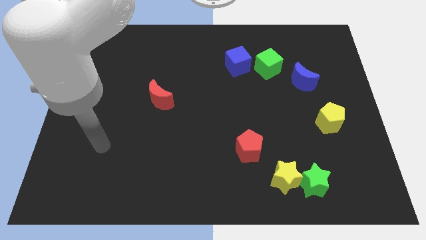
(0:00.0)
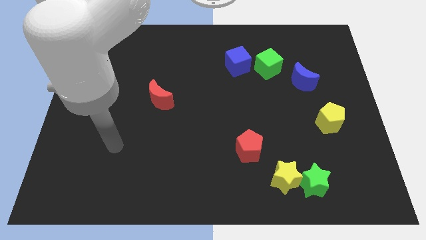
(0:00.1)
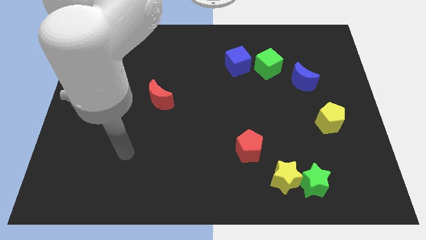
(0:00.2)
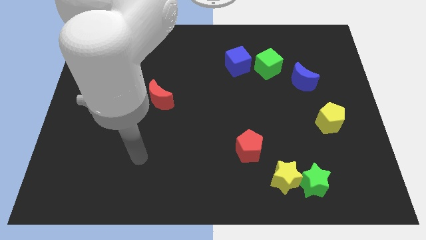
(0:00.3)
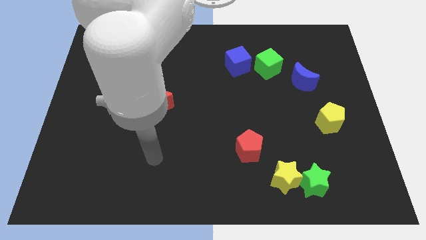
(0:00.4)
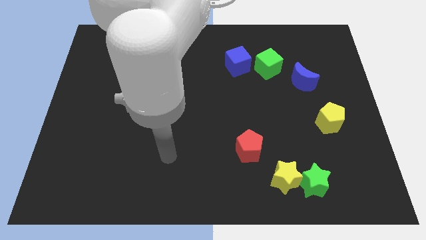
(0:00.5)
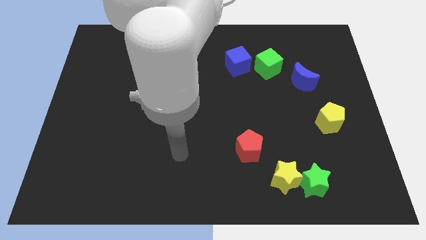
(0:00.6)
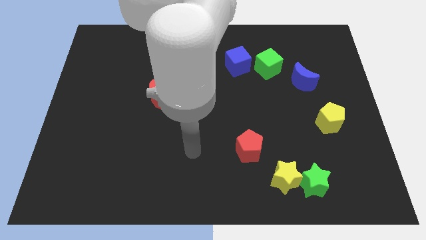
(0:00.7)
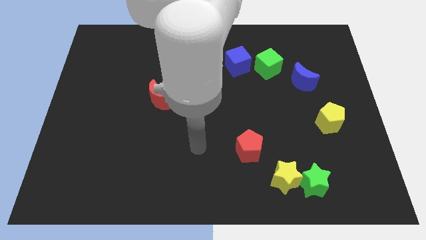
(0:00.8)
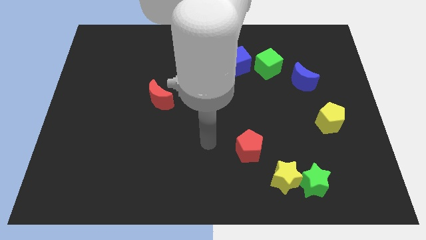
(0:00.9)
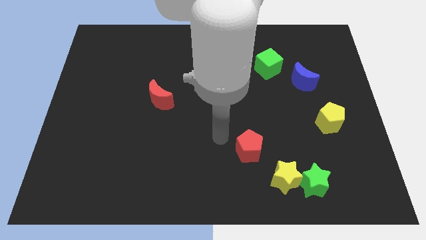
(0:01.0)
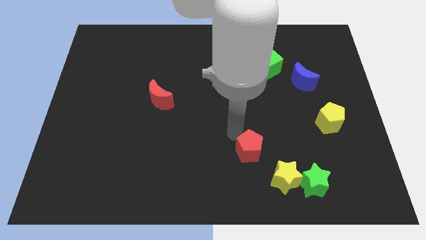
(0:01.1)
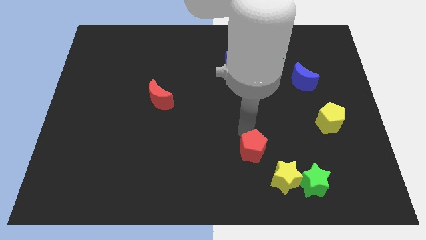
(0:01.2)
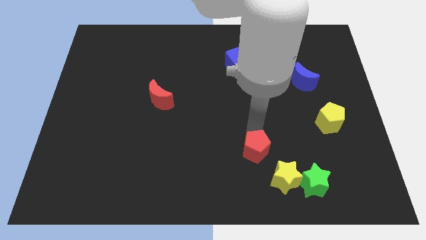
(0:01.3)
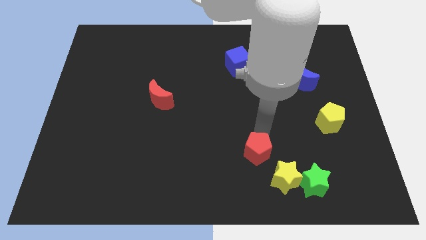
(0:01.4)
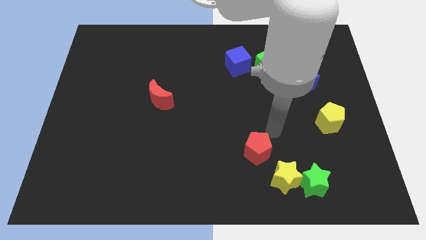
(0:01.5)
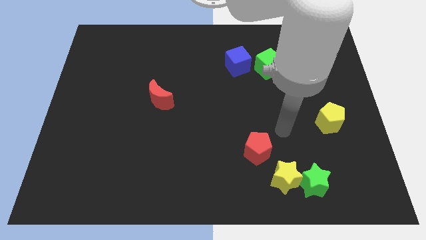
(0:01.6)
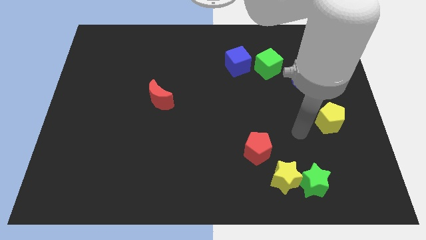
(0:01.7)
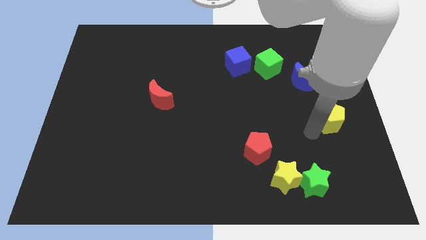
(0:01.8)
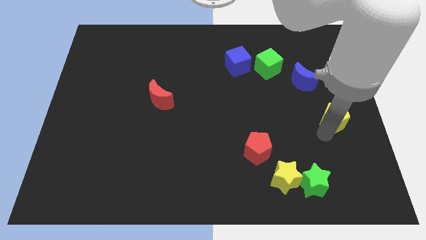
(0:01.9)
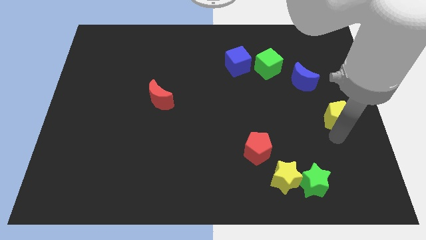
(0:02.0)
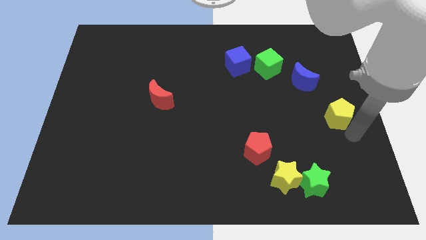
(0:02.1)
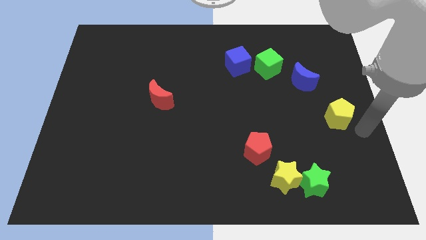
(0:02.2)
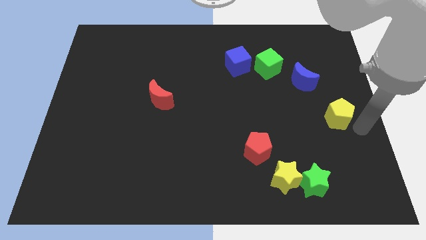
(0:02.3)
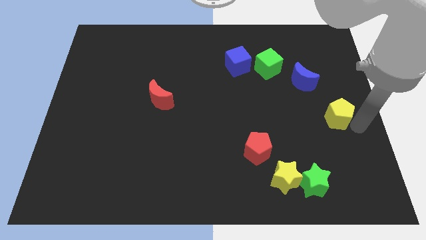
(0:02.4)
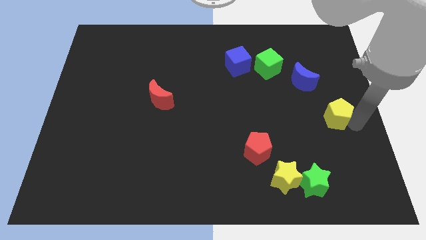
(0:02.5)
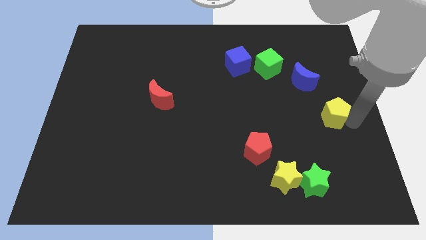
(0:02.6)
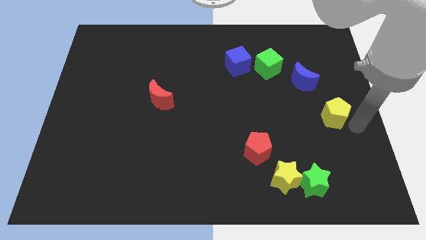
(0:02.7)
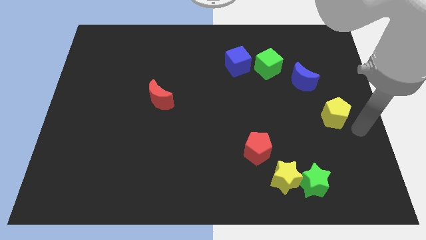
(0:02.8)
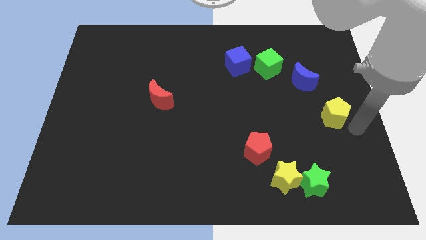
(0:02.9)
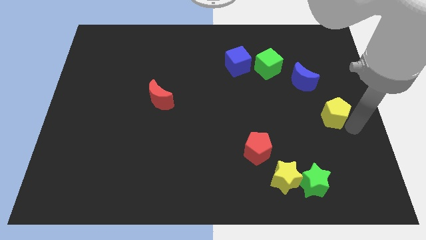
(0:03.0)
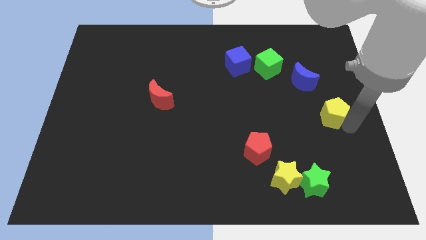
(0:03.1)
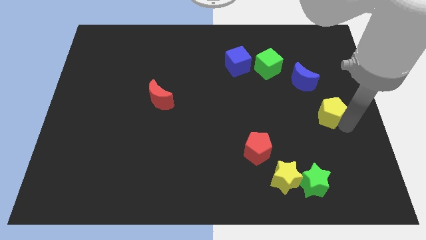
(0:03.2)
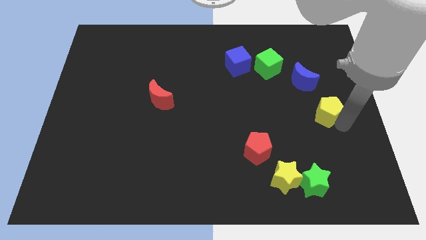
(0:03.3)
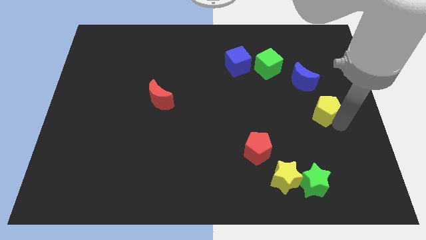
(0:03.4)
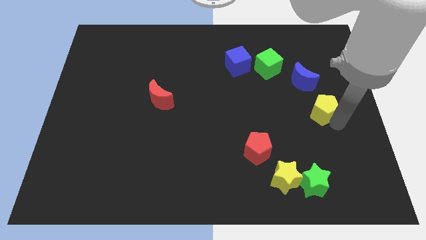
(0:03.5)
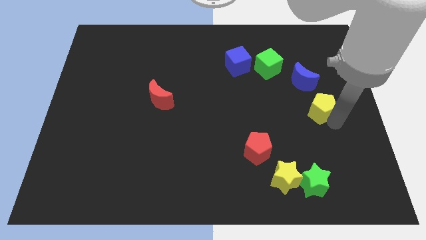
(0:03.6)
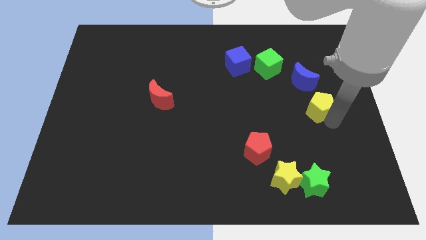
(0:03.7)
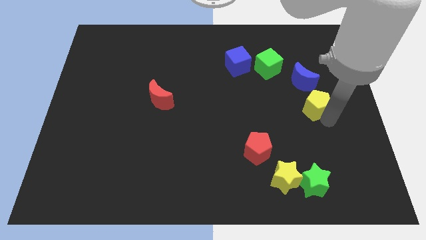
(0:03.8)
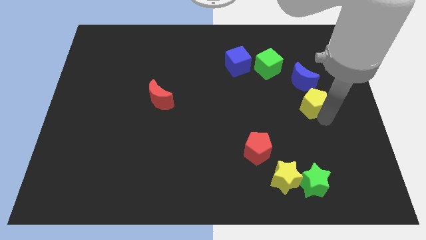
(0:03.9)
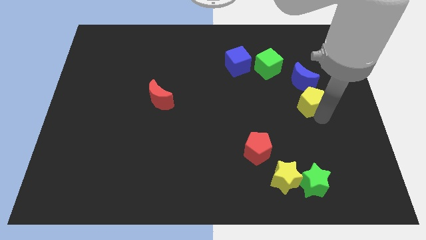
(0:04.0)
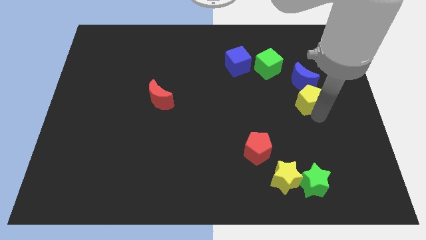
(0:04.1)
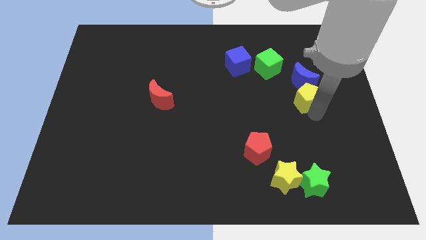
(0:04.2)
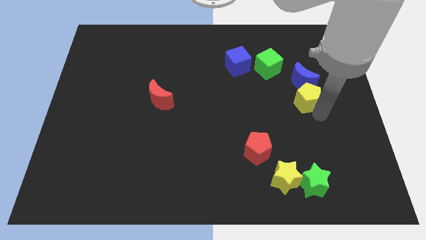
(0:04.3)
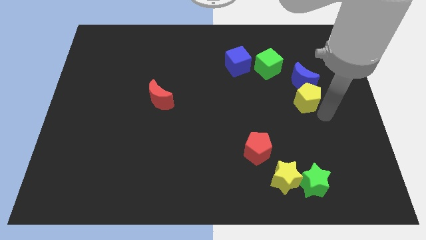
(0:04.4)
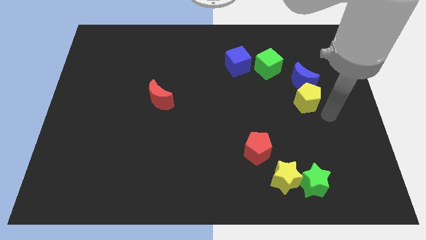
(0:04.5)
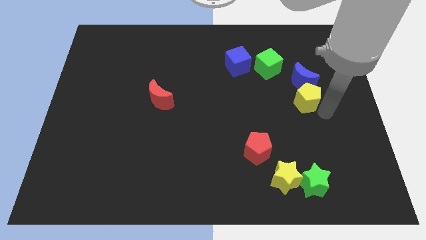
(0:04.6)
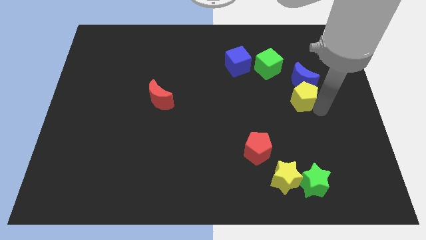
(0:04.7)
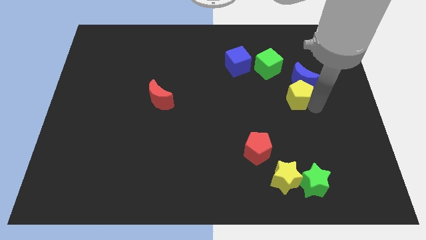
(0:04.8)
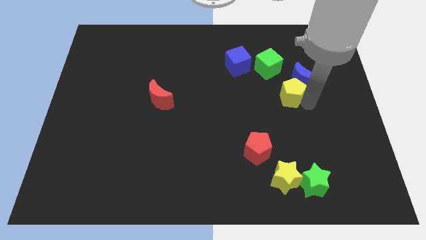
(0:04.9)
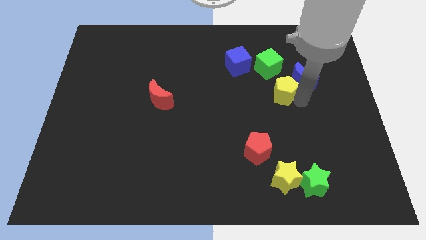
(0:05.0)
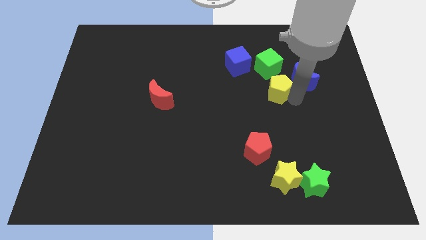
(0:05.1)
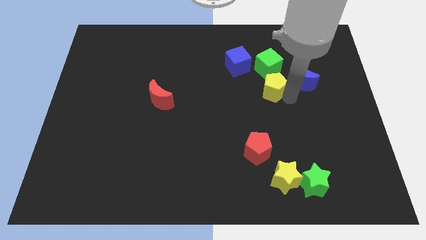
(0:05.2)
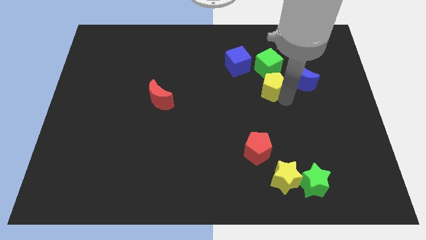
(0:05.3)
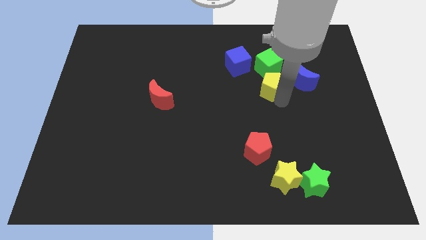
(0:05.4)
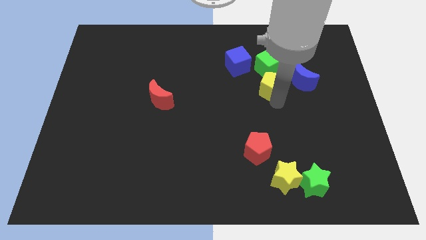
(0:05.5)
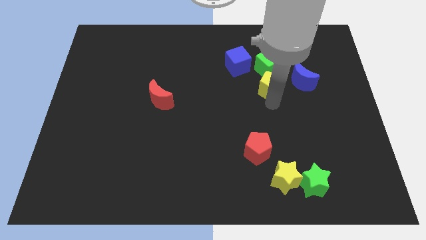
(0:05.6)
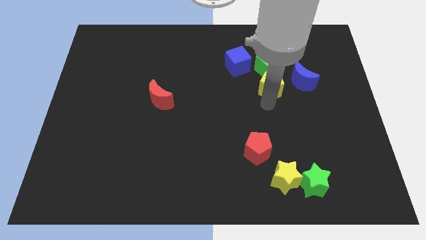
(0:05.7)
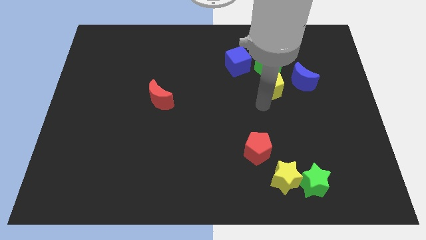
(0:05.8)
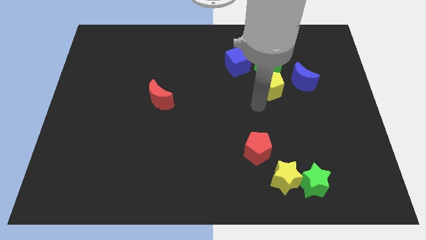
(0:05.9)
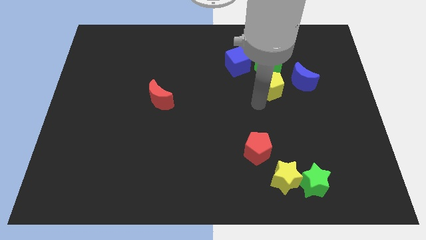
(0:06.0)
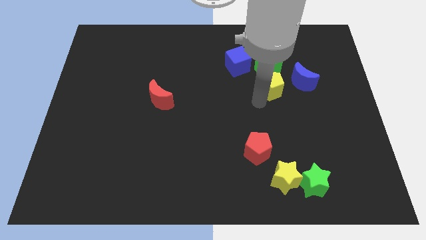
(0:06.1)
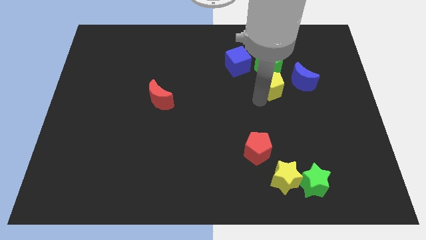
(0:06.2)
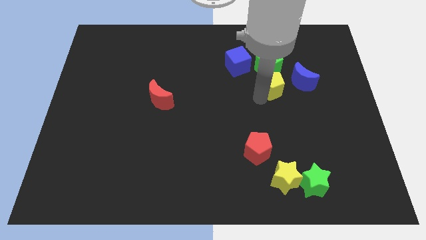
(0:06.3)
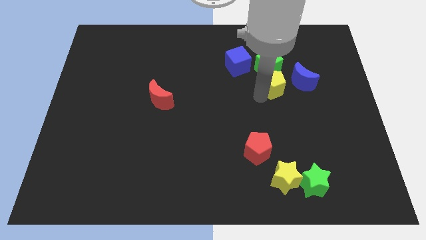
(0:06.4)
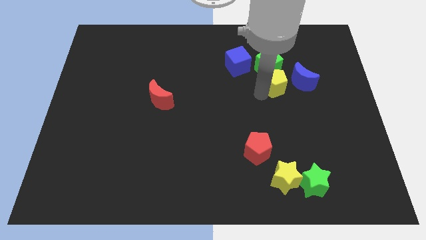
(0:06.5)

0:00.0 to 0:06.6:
move the yellow pentagon next to the green cube
